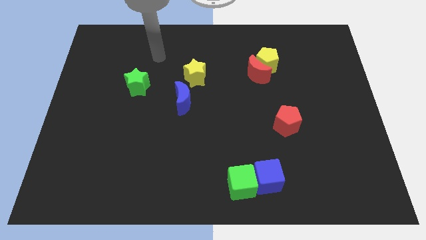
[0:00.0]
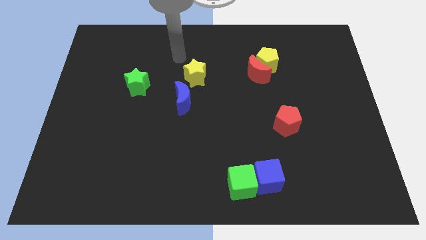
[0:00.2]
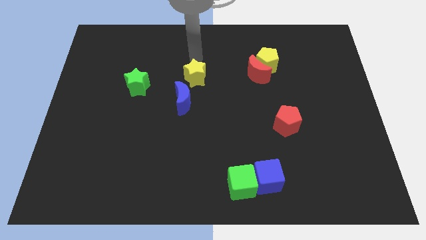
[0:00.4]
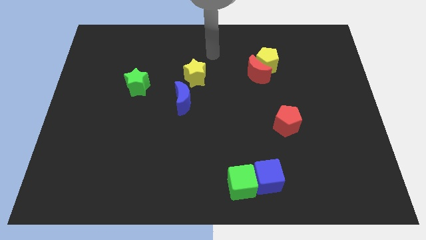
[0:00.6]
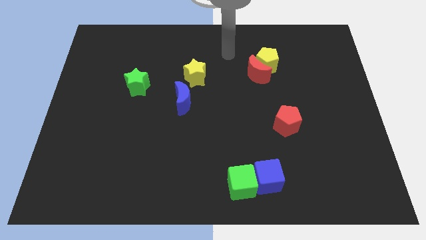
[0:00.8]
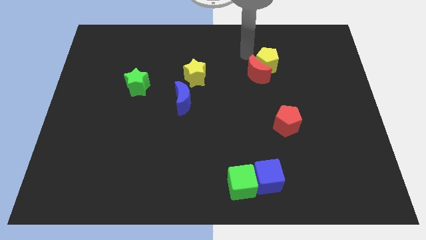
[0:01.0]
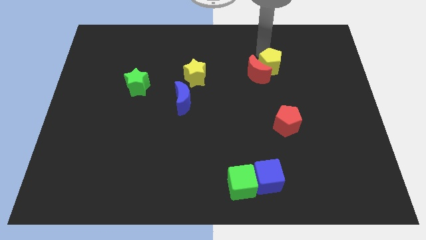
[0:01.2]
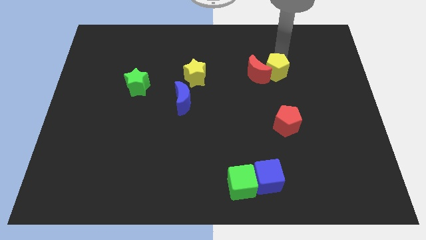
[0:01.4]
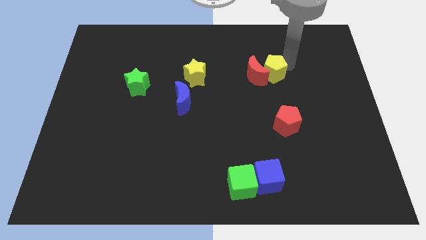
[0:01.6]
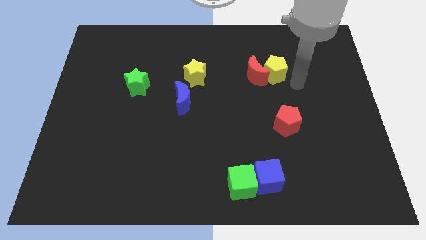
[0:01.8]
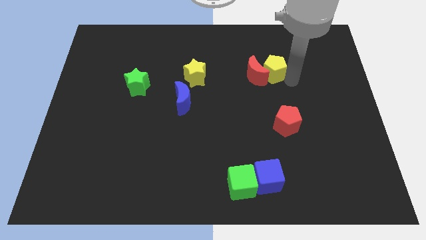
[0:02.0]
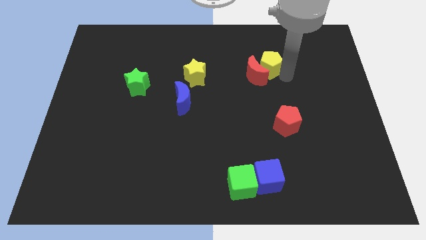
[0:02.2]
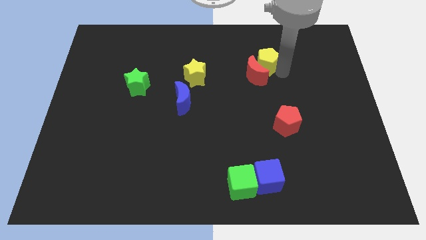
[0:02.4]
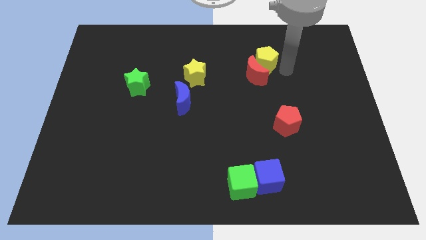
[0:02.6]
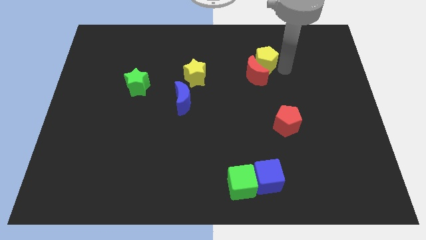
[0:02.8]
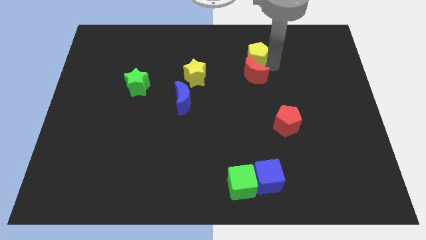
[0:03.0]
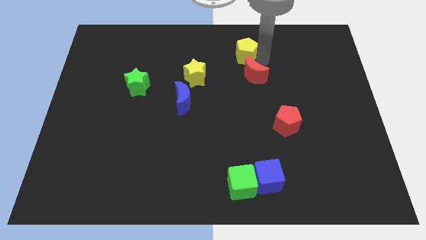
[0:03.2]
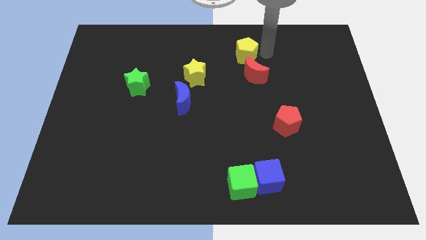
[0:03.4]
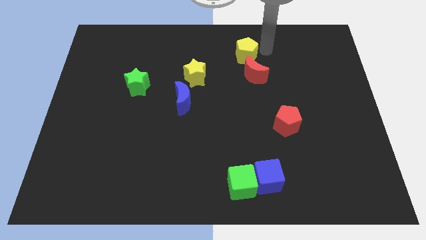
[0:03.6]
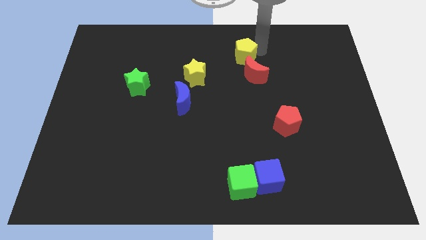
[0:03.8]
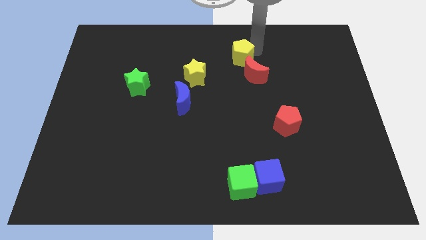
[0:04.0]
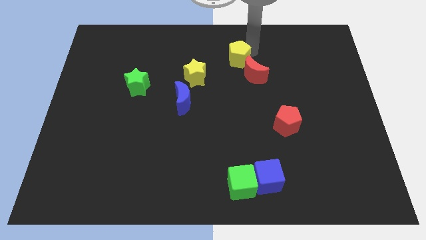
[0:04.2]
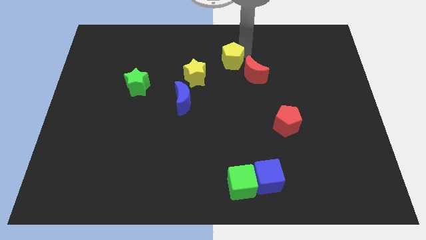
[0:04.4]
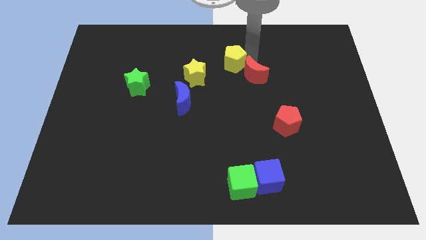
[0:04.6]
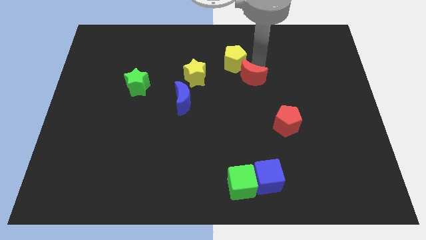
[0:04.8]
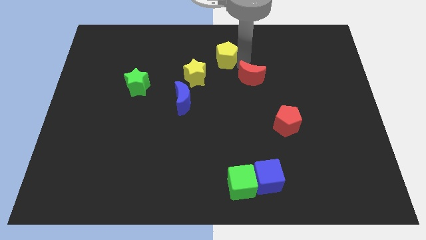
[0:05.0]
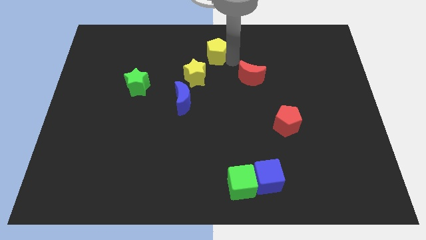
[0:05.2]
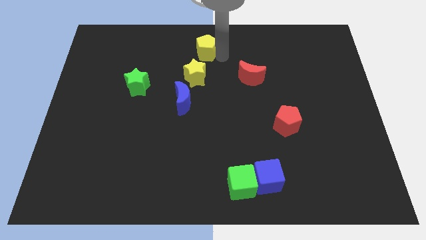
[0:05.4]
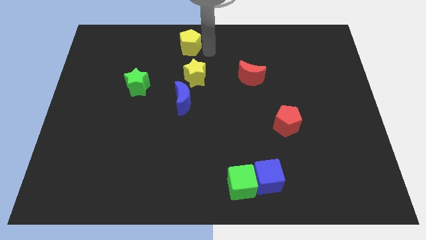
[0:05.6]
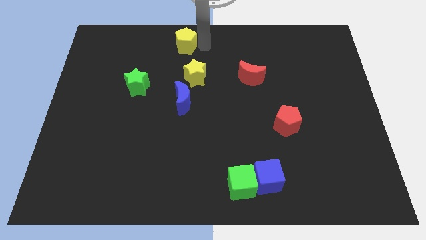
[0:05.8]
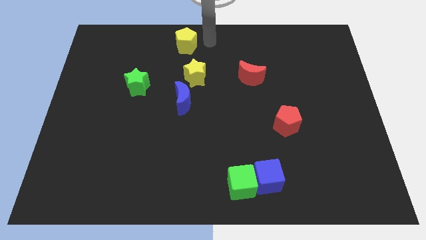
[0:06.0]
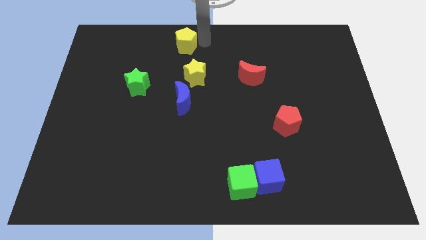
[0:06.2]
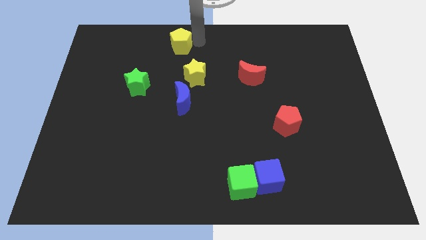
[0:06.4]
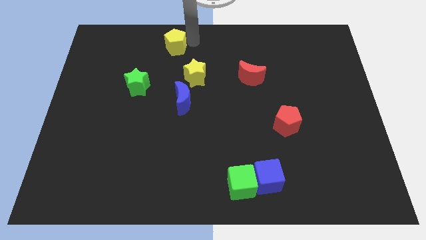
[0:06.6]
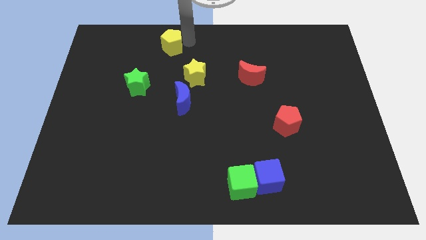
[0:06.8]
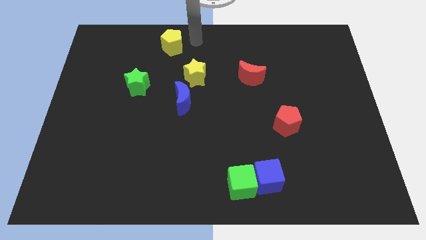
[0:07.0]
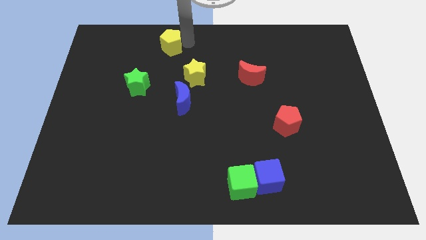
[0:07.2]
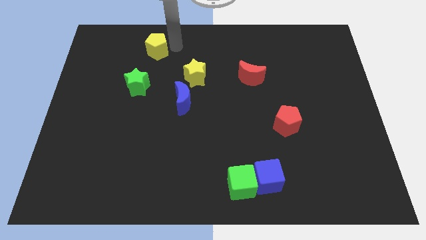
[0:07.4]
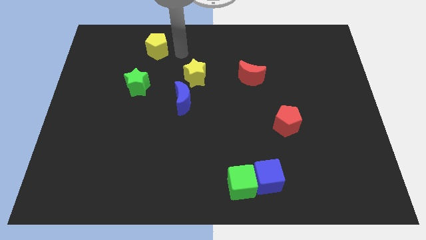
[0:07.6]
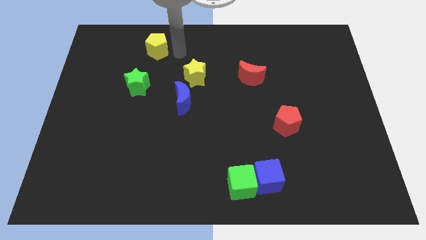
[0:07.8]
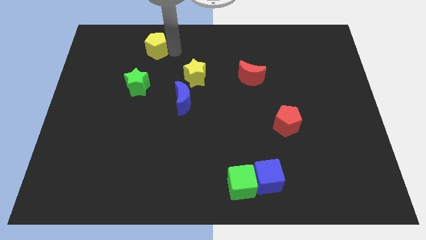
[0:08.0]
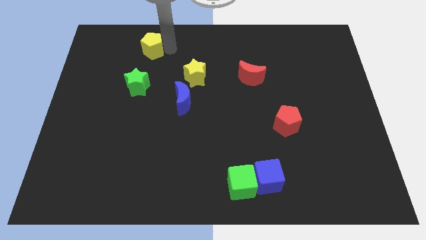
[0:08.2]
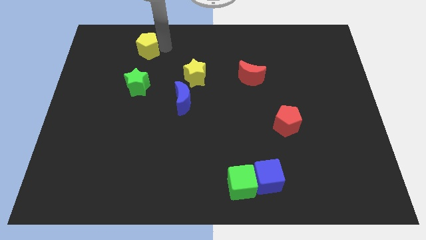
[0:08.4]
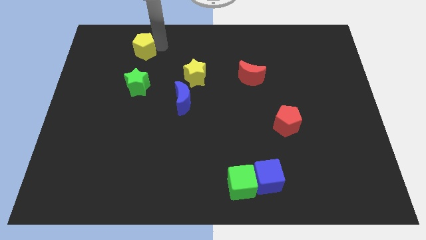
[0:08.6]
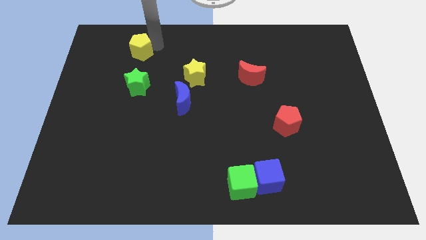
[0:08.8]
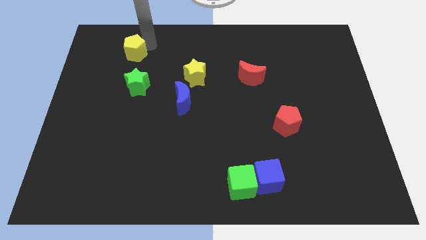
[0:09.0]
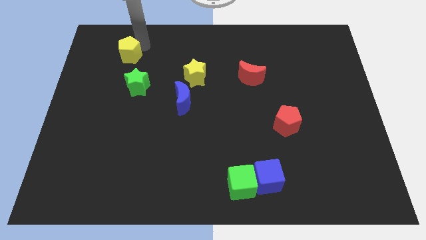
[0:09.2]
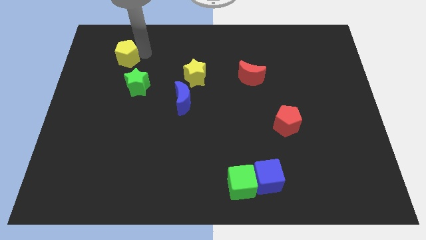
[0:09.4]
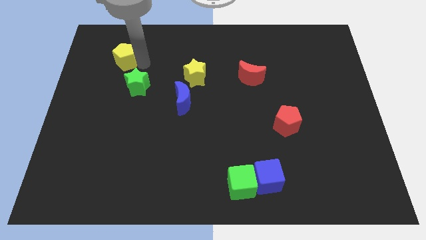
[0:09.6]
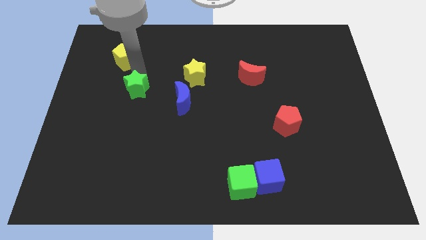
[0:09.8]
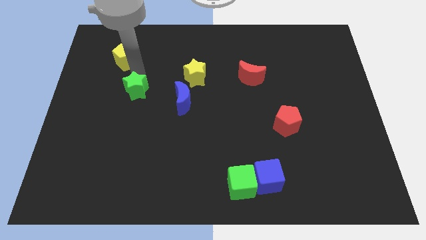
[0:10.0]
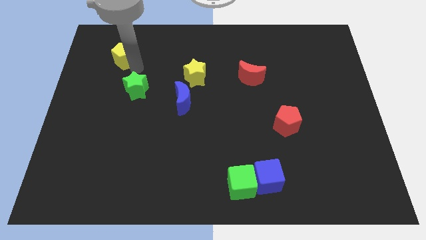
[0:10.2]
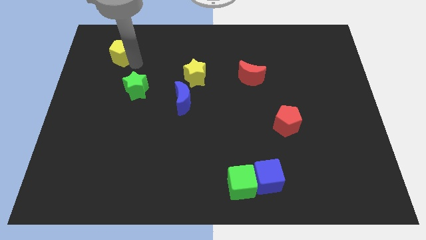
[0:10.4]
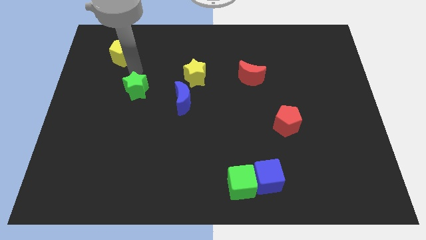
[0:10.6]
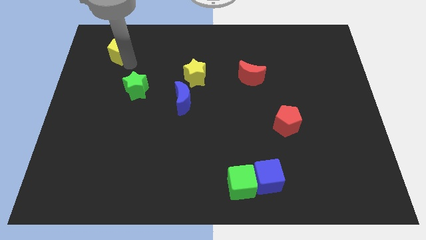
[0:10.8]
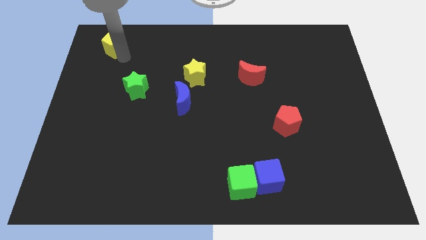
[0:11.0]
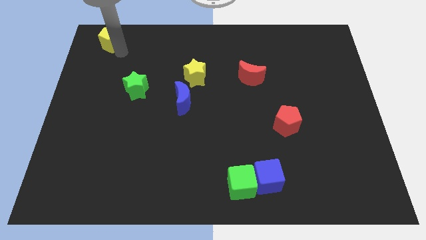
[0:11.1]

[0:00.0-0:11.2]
push the yellow pentagon to the top left of the board
